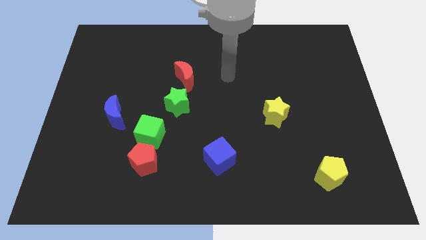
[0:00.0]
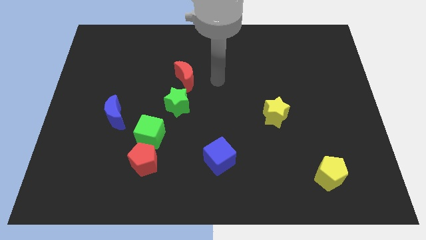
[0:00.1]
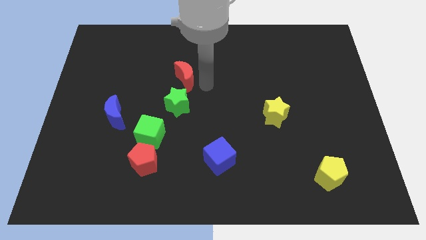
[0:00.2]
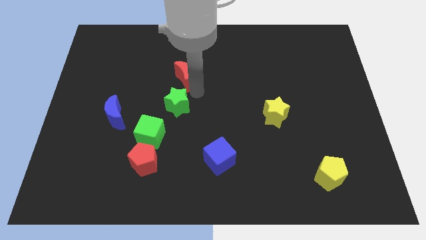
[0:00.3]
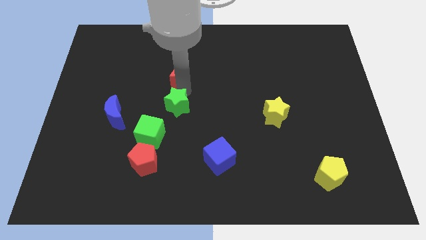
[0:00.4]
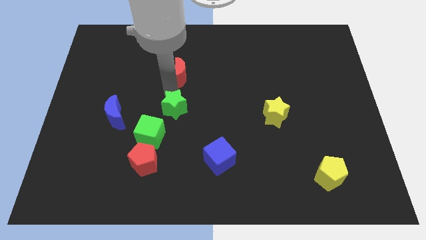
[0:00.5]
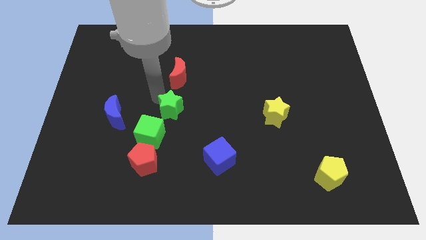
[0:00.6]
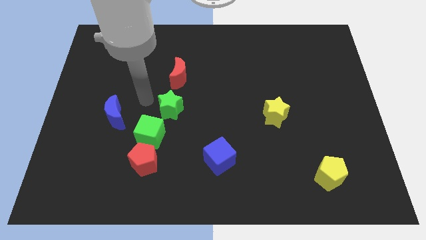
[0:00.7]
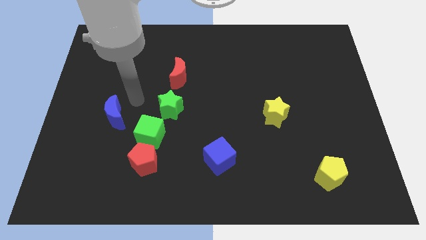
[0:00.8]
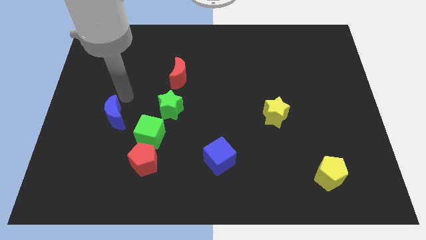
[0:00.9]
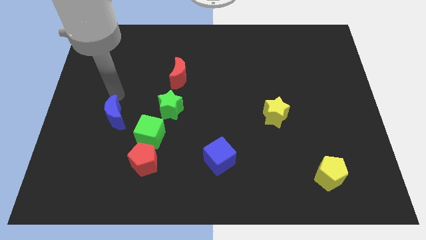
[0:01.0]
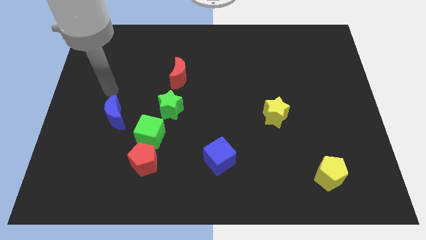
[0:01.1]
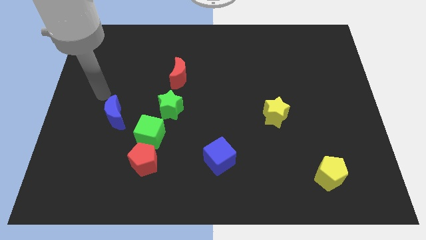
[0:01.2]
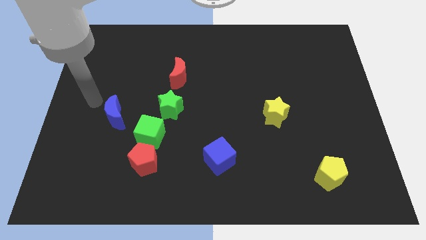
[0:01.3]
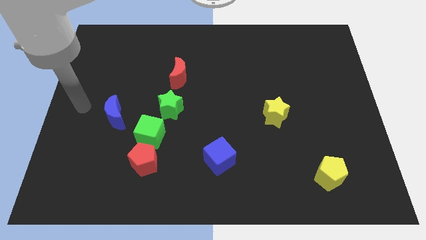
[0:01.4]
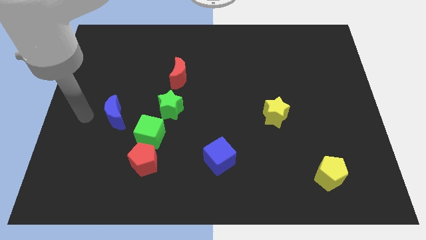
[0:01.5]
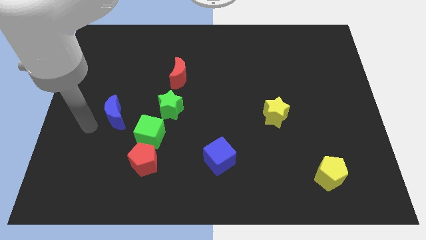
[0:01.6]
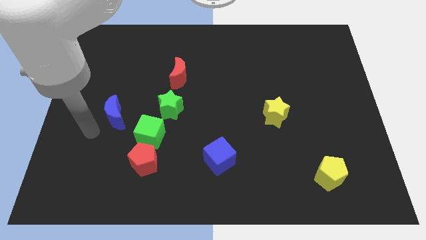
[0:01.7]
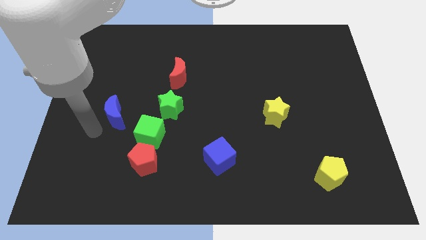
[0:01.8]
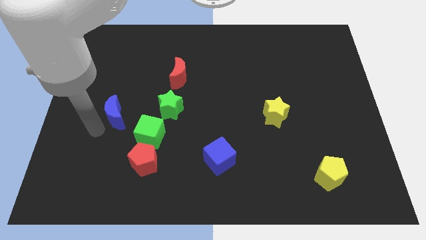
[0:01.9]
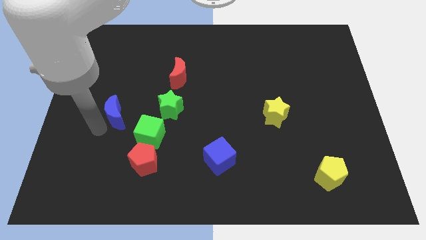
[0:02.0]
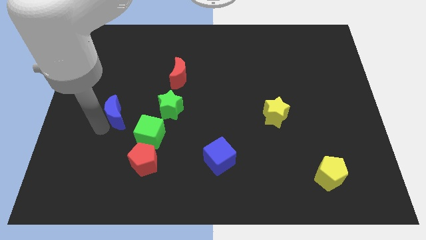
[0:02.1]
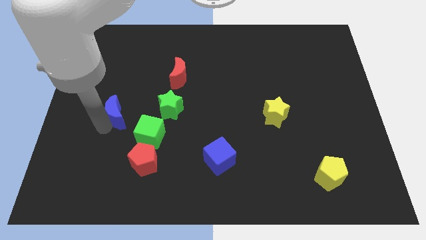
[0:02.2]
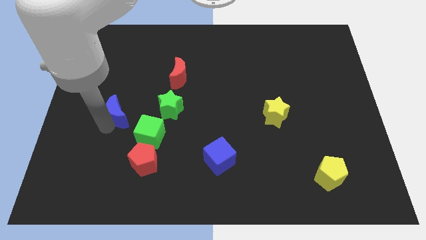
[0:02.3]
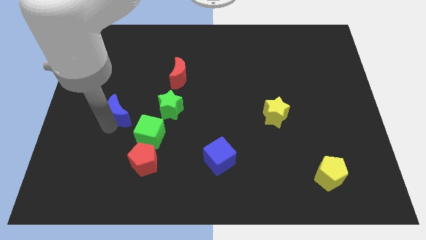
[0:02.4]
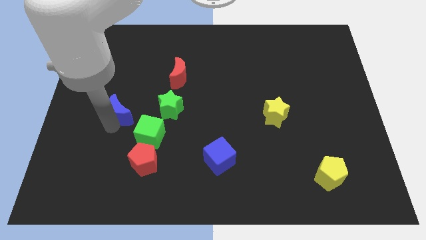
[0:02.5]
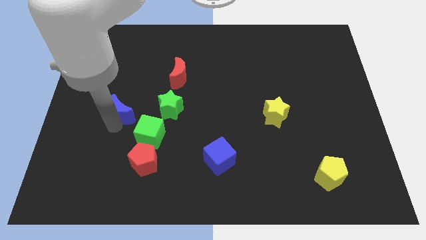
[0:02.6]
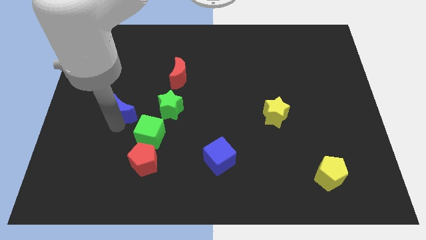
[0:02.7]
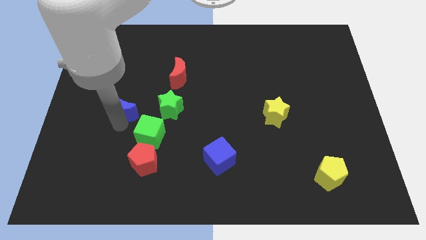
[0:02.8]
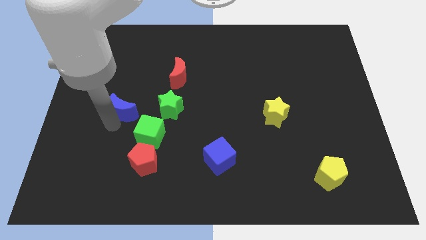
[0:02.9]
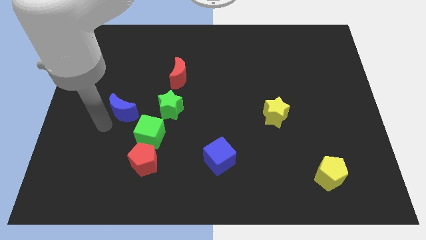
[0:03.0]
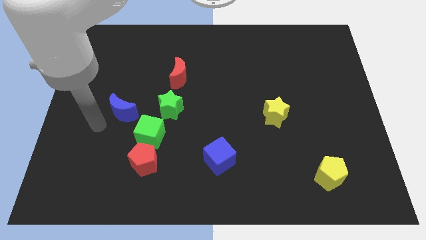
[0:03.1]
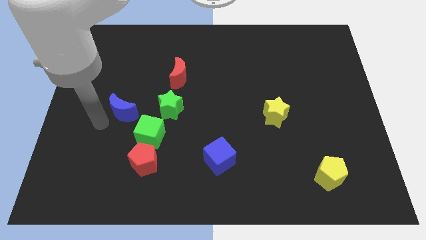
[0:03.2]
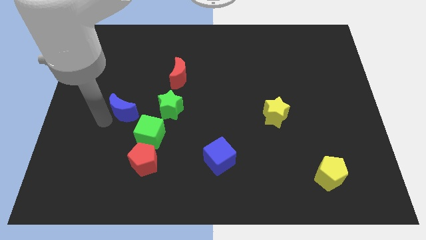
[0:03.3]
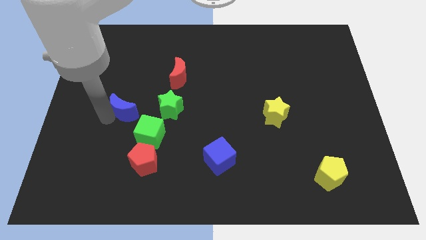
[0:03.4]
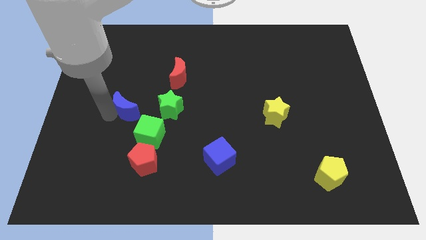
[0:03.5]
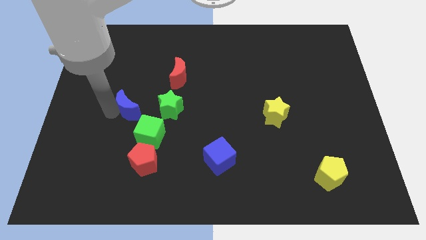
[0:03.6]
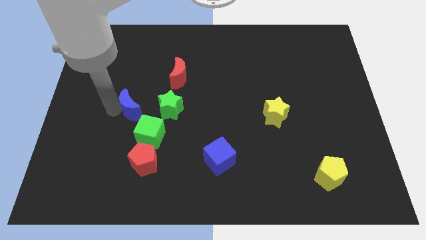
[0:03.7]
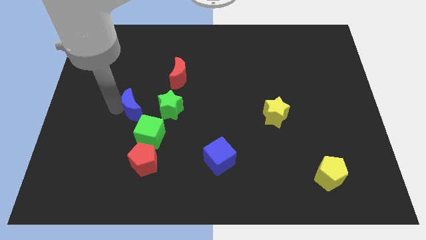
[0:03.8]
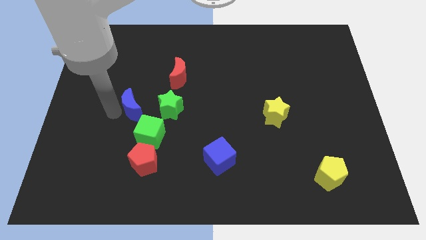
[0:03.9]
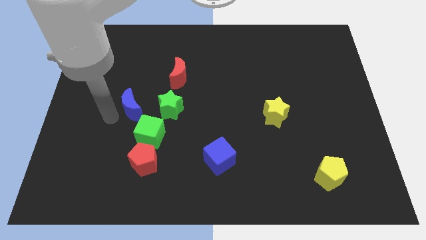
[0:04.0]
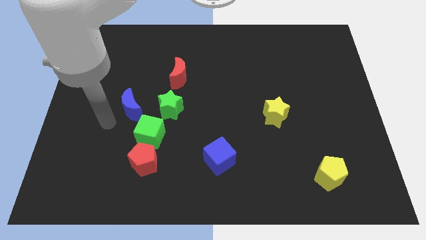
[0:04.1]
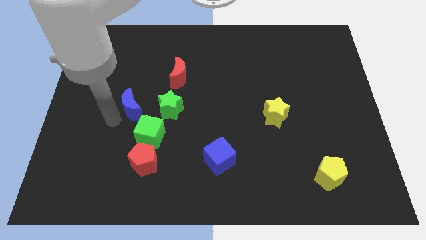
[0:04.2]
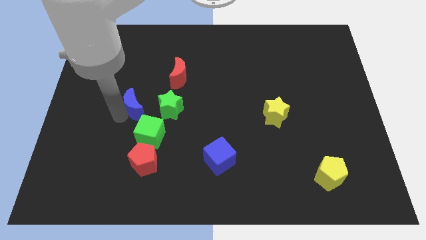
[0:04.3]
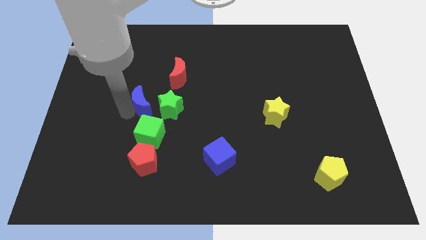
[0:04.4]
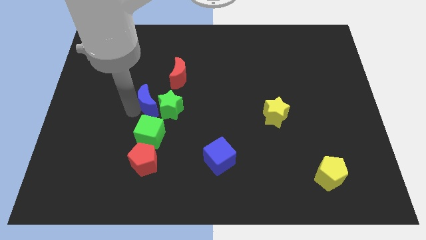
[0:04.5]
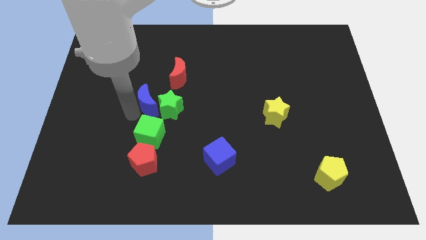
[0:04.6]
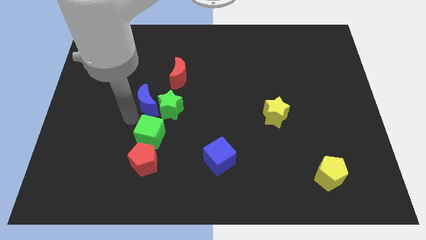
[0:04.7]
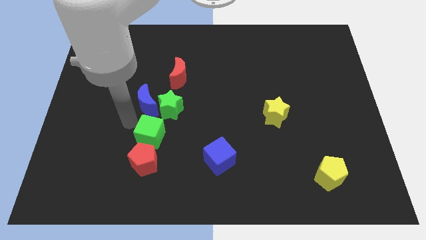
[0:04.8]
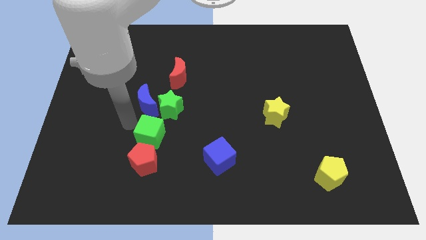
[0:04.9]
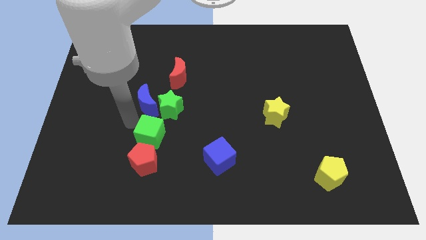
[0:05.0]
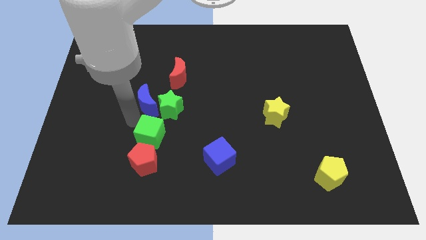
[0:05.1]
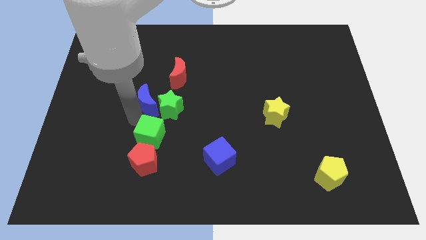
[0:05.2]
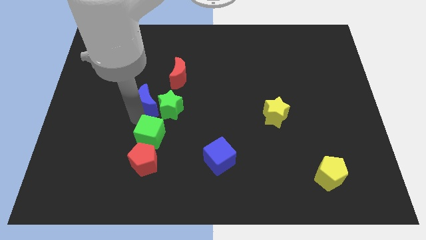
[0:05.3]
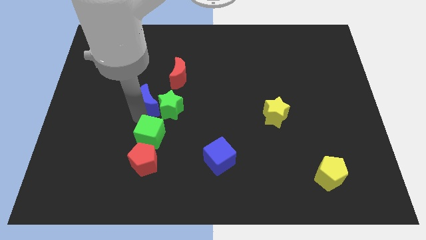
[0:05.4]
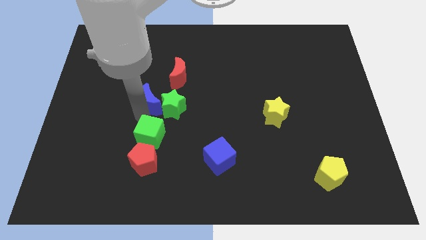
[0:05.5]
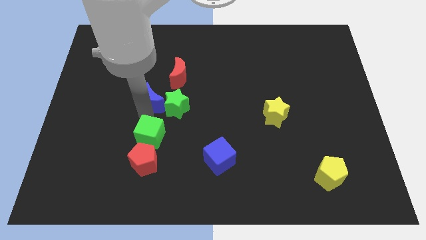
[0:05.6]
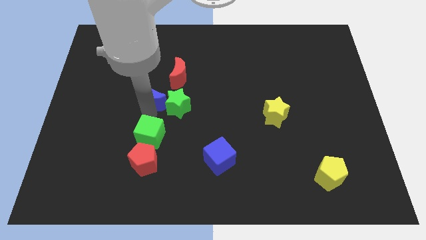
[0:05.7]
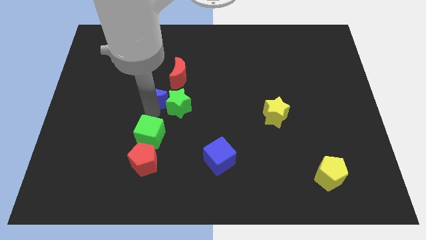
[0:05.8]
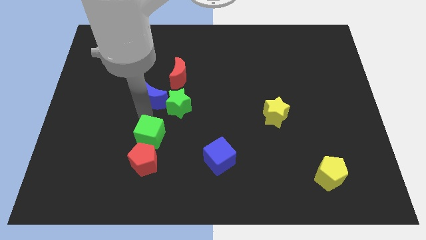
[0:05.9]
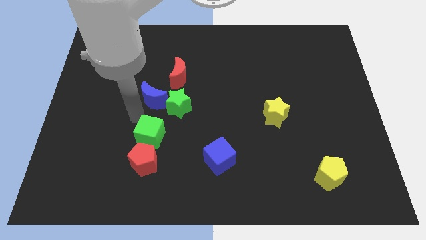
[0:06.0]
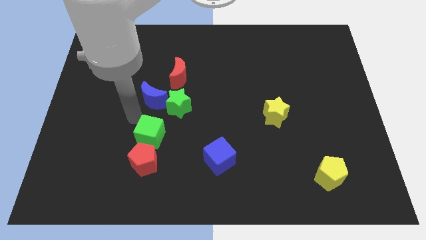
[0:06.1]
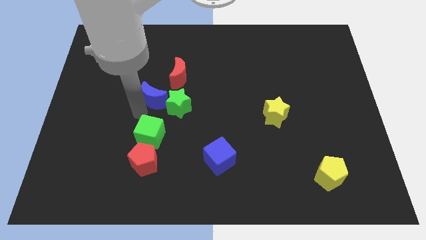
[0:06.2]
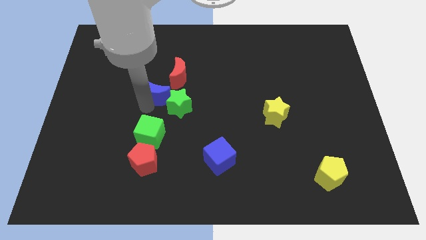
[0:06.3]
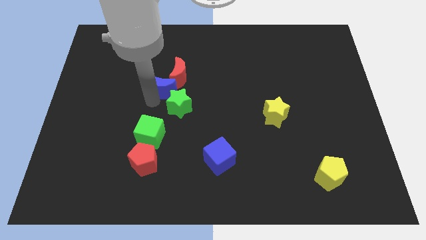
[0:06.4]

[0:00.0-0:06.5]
put the blue moon next to the red moon

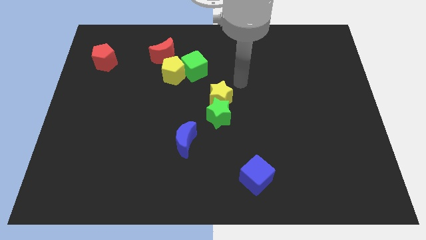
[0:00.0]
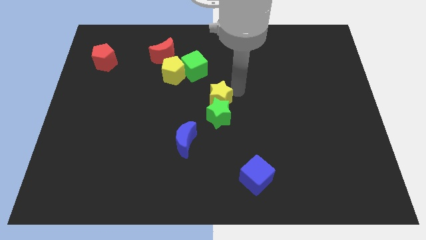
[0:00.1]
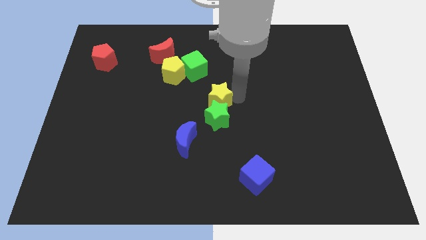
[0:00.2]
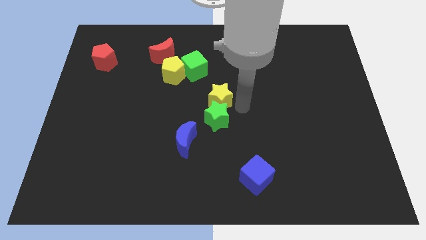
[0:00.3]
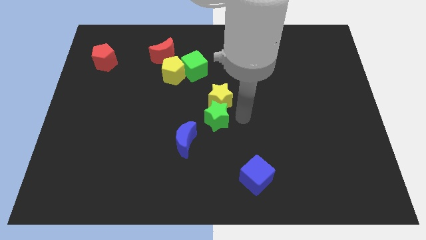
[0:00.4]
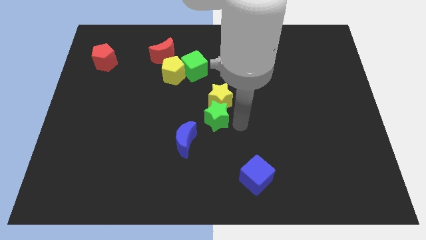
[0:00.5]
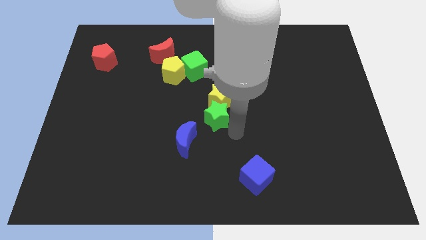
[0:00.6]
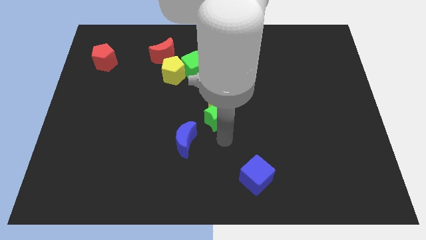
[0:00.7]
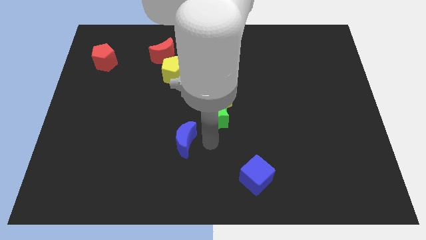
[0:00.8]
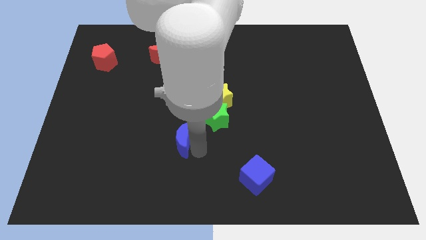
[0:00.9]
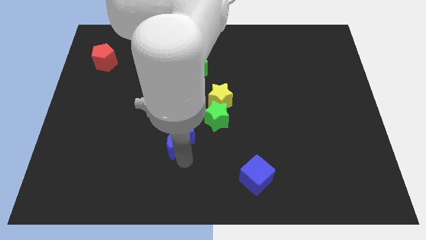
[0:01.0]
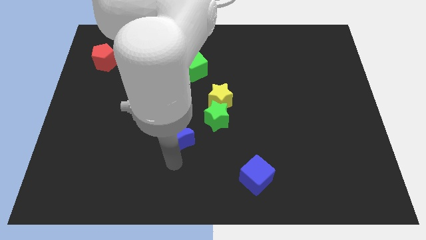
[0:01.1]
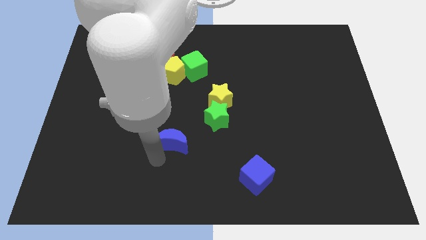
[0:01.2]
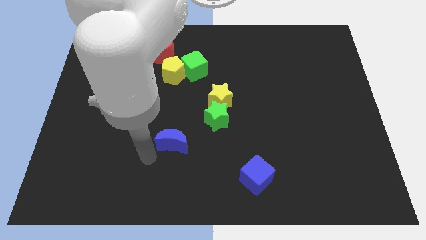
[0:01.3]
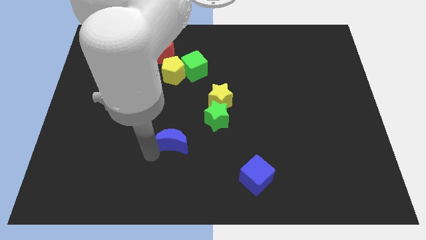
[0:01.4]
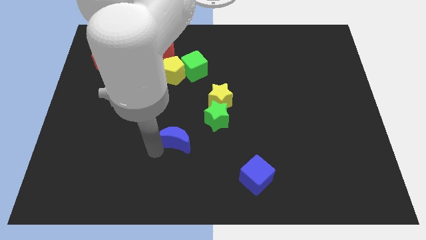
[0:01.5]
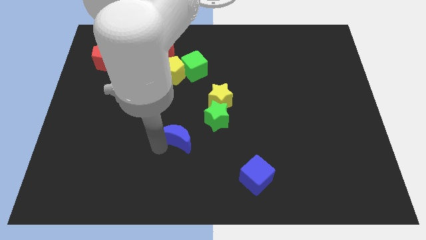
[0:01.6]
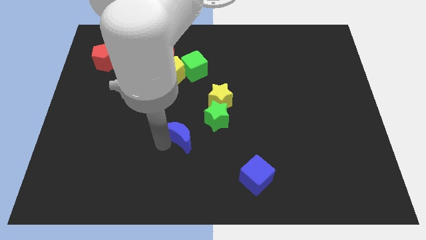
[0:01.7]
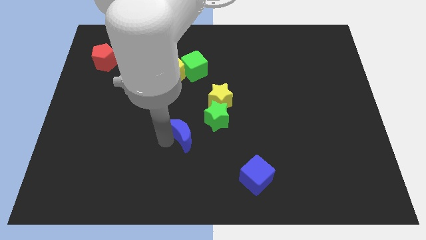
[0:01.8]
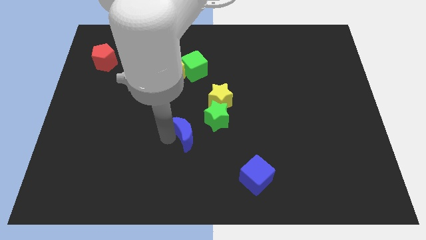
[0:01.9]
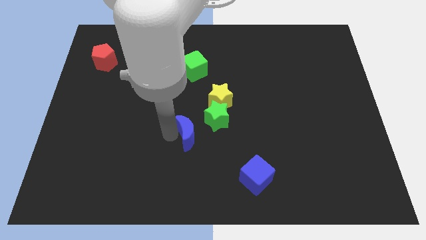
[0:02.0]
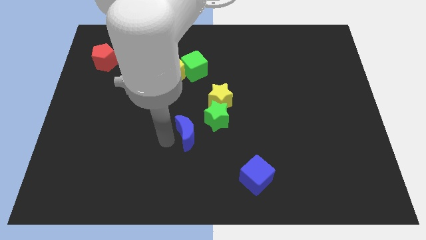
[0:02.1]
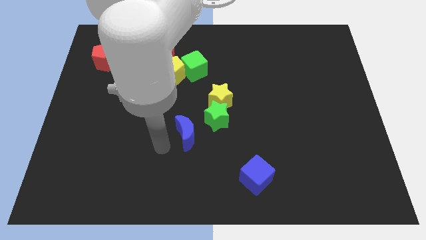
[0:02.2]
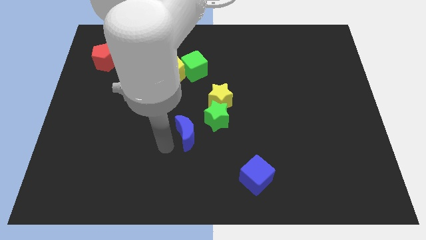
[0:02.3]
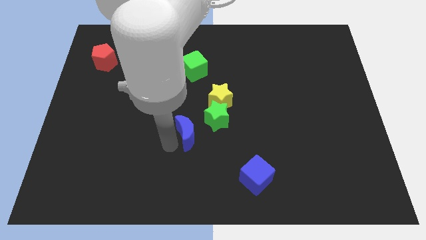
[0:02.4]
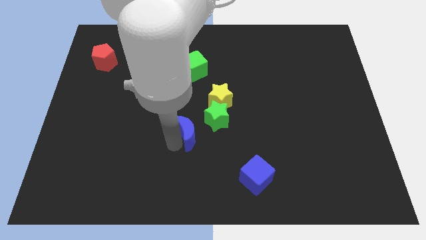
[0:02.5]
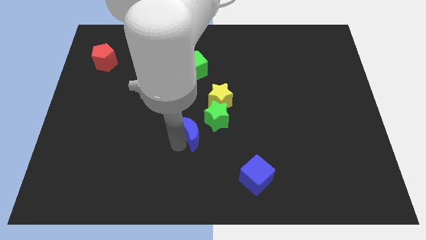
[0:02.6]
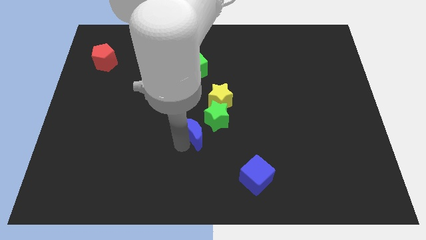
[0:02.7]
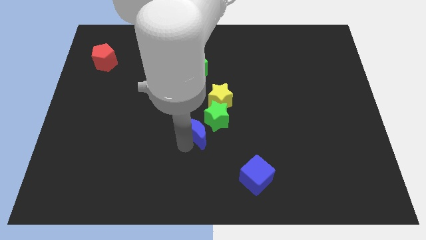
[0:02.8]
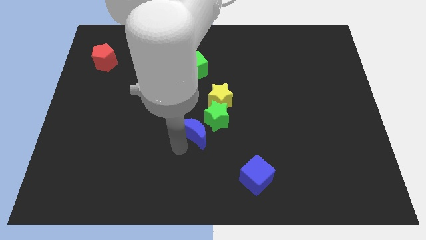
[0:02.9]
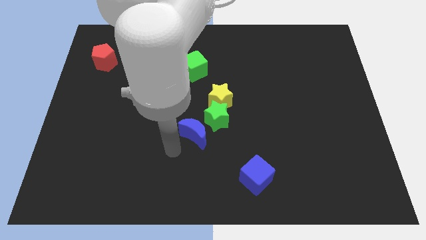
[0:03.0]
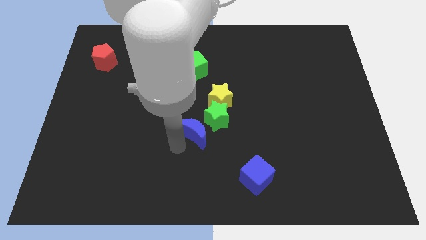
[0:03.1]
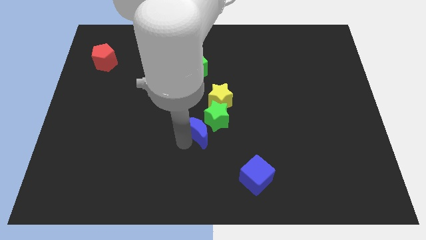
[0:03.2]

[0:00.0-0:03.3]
slide the blue moon to the green star
